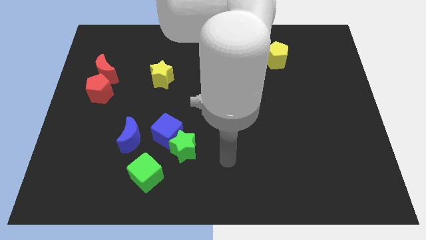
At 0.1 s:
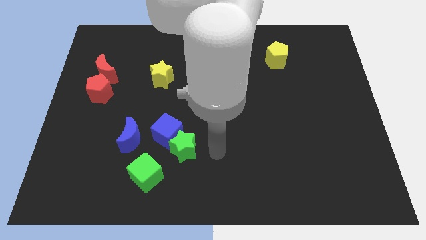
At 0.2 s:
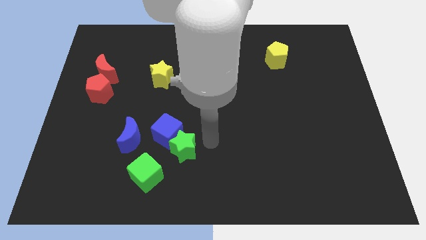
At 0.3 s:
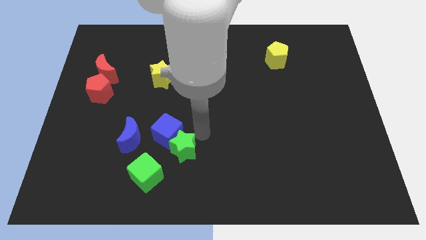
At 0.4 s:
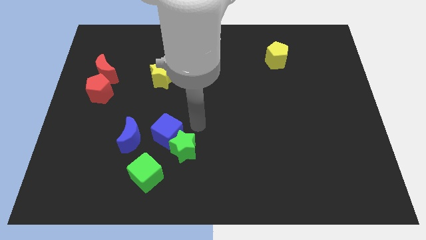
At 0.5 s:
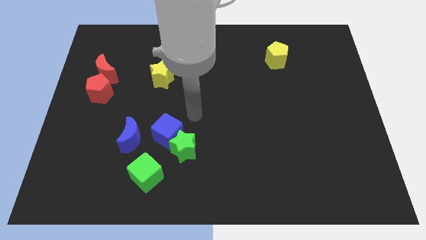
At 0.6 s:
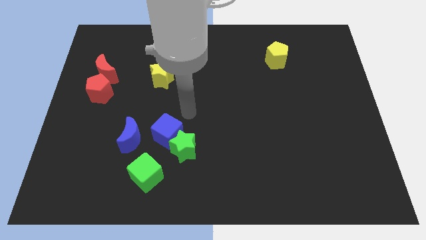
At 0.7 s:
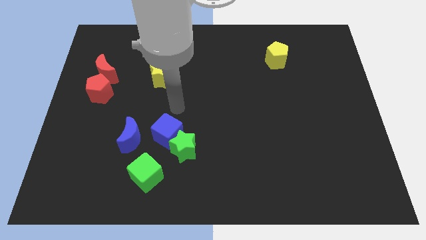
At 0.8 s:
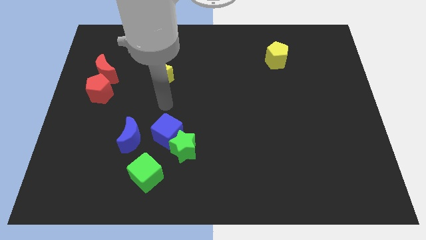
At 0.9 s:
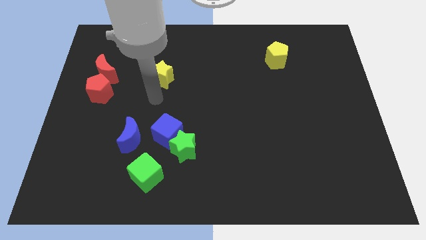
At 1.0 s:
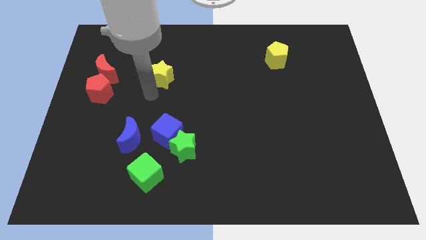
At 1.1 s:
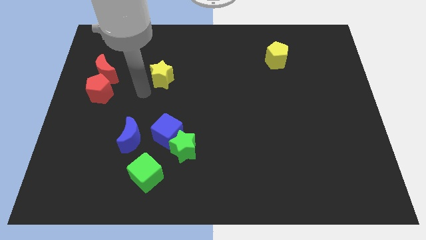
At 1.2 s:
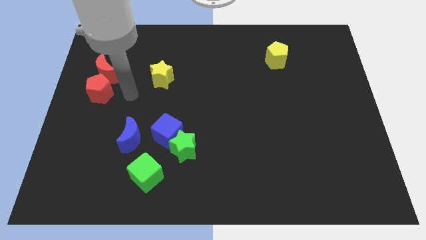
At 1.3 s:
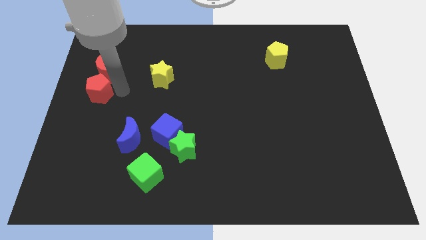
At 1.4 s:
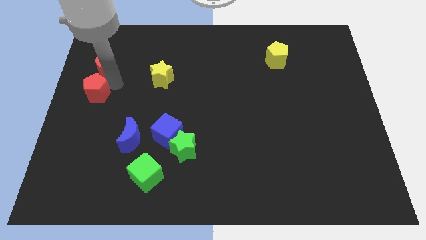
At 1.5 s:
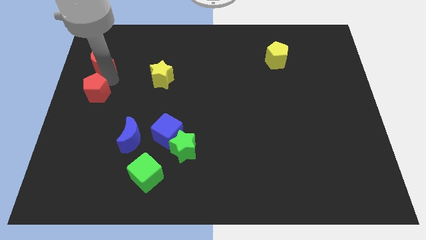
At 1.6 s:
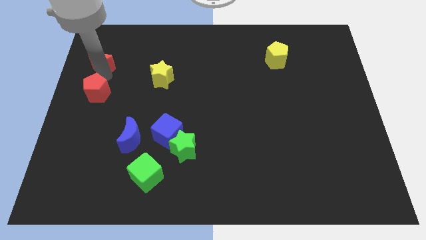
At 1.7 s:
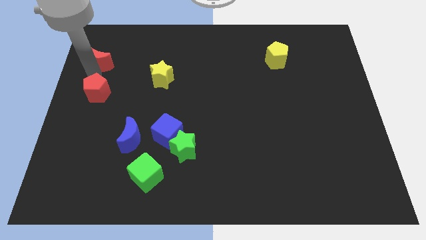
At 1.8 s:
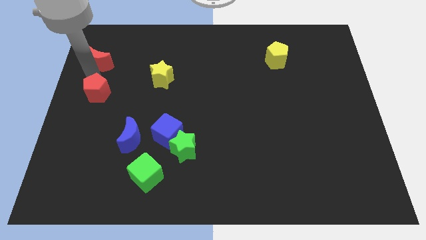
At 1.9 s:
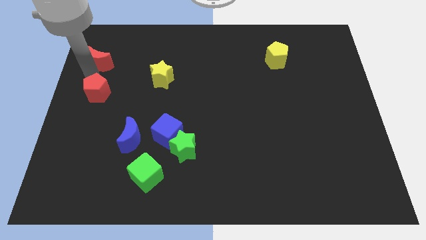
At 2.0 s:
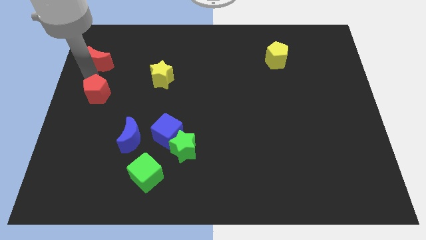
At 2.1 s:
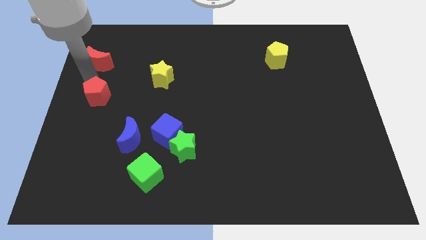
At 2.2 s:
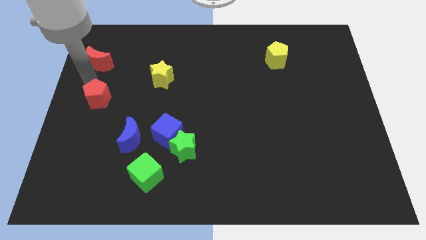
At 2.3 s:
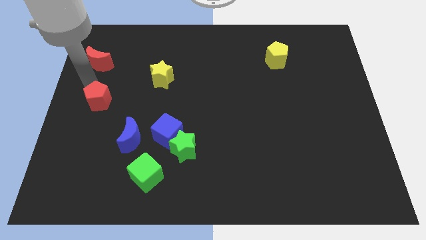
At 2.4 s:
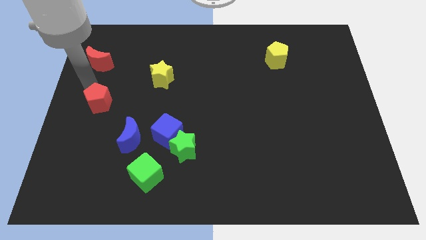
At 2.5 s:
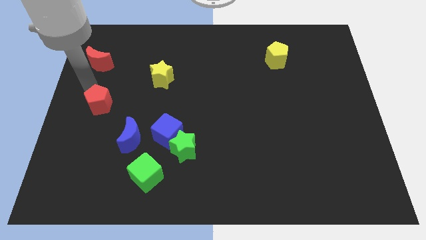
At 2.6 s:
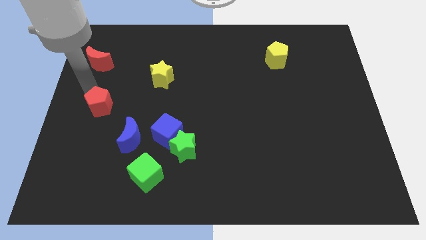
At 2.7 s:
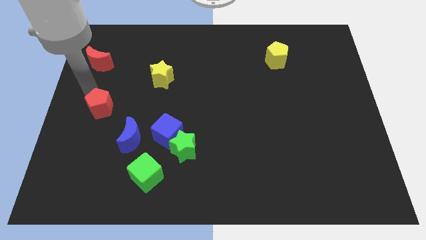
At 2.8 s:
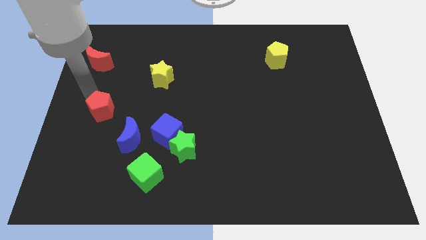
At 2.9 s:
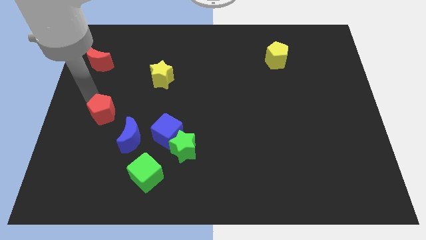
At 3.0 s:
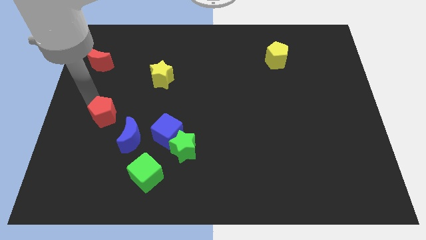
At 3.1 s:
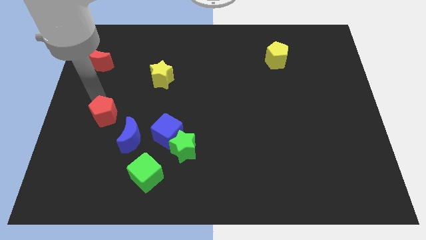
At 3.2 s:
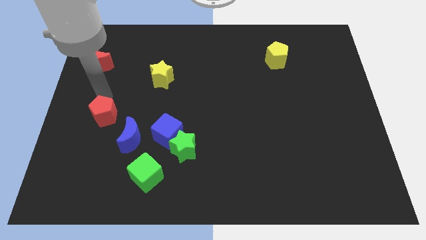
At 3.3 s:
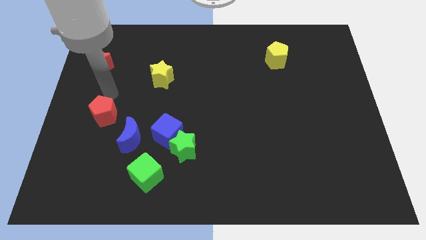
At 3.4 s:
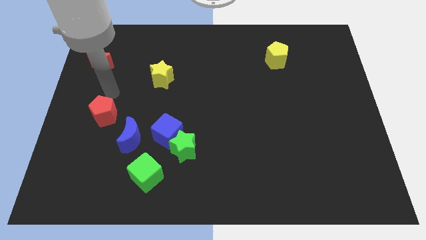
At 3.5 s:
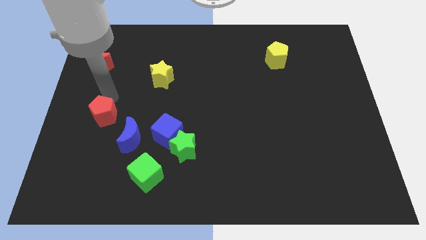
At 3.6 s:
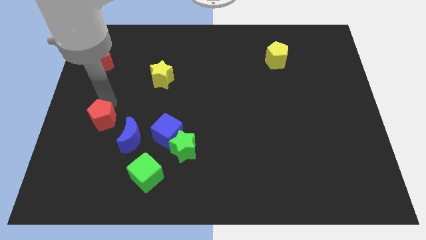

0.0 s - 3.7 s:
slightly slide the red pentagon down

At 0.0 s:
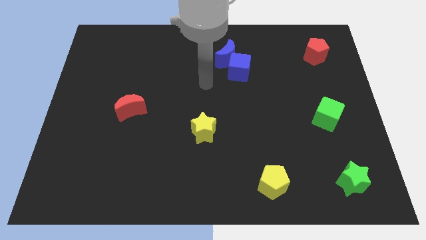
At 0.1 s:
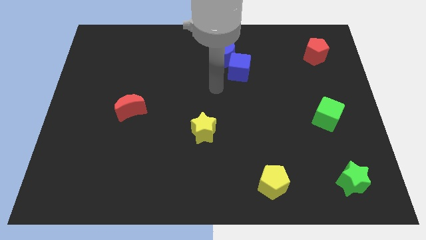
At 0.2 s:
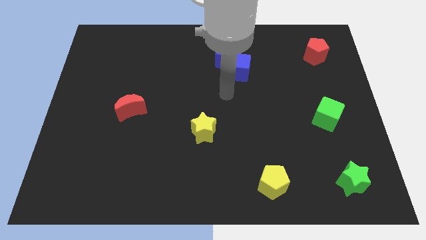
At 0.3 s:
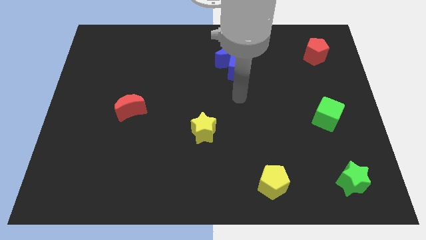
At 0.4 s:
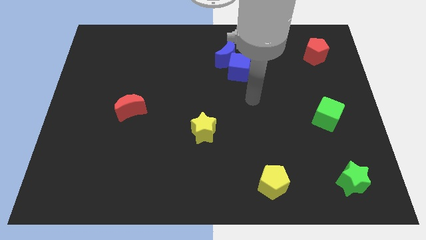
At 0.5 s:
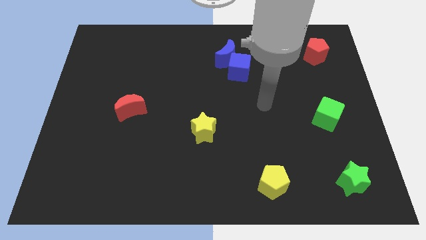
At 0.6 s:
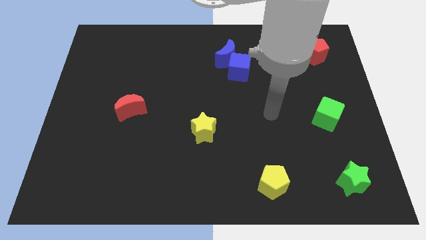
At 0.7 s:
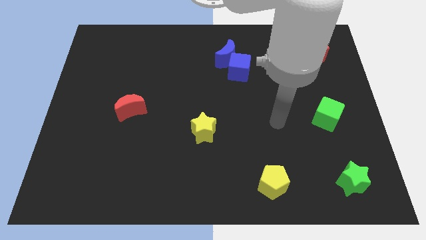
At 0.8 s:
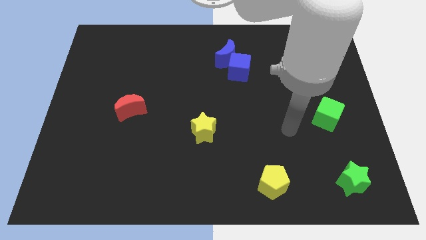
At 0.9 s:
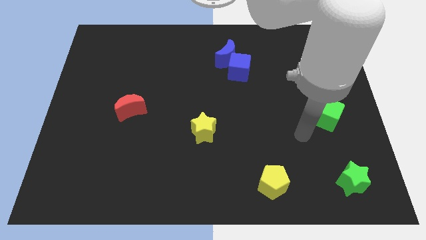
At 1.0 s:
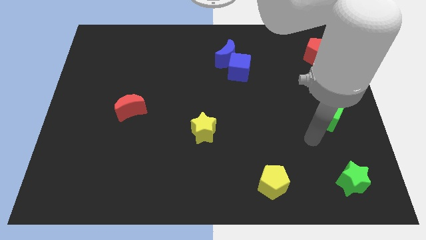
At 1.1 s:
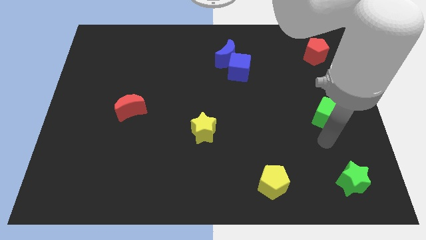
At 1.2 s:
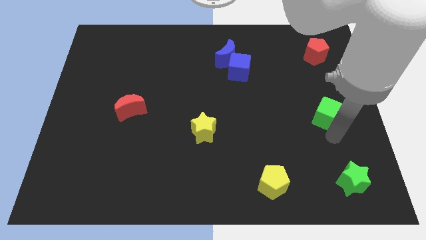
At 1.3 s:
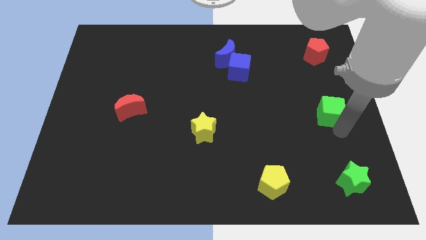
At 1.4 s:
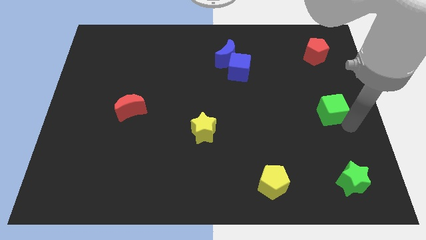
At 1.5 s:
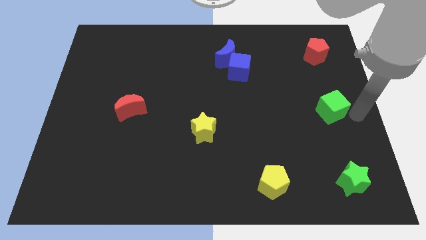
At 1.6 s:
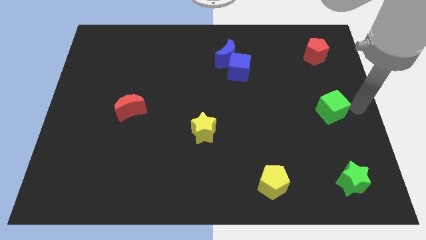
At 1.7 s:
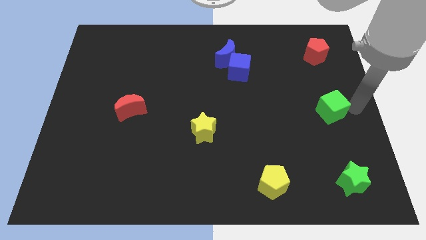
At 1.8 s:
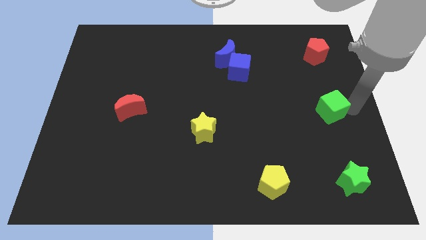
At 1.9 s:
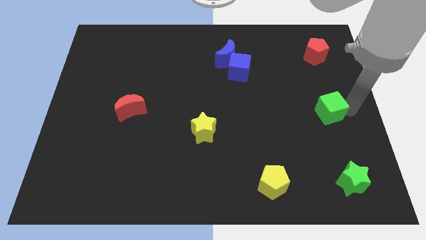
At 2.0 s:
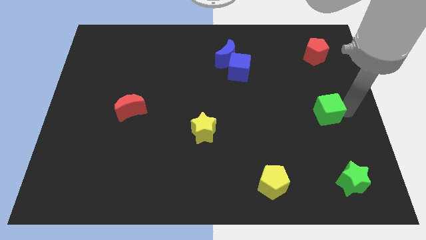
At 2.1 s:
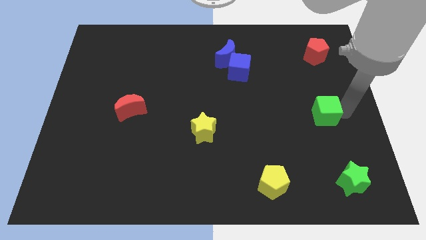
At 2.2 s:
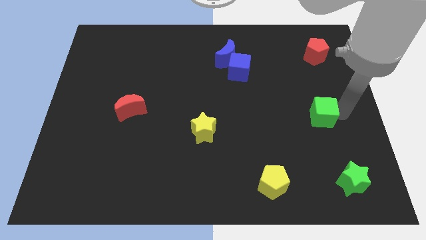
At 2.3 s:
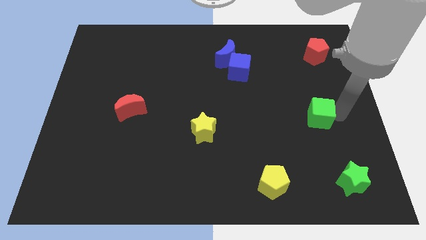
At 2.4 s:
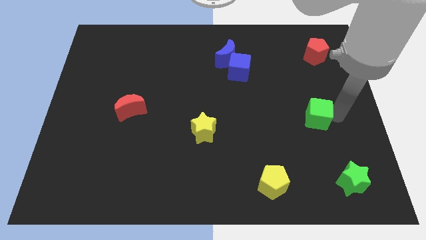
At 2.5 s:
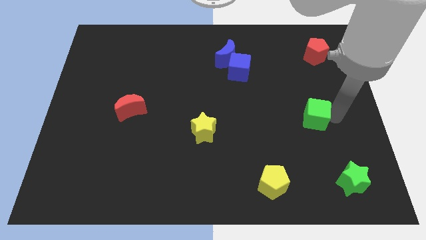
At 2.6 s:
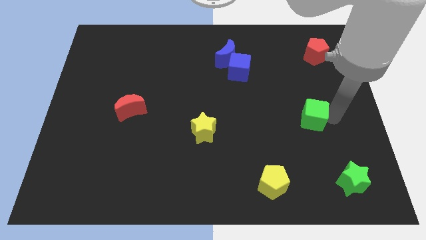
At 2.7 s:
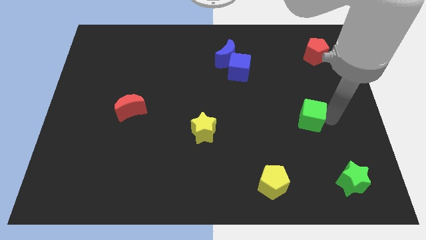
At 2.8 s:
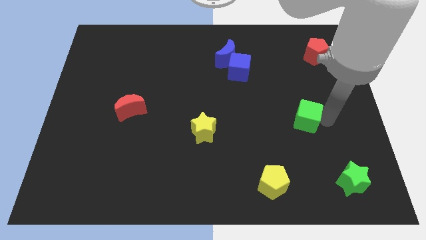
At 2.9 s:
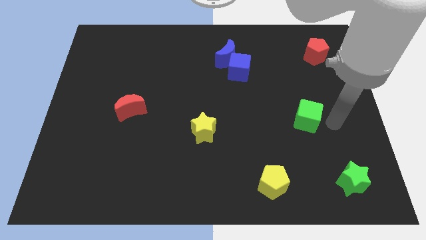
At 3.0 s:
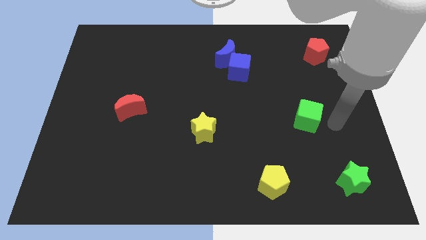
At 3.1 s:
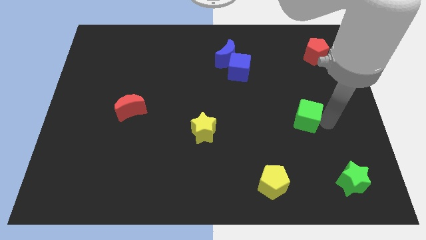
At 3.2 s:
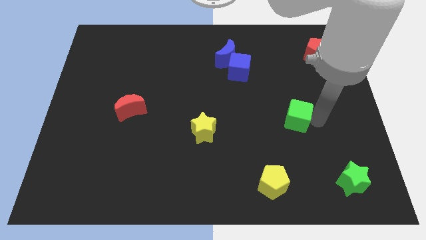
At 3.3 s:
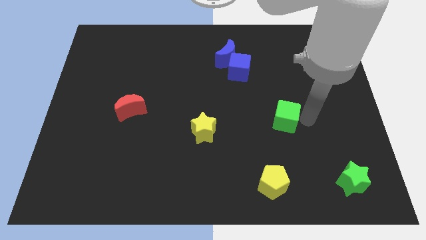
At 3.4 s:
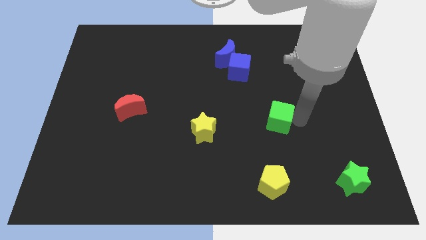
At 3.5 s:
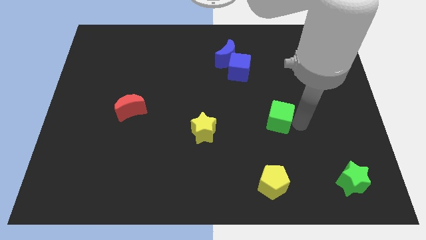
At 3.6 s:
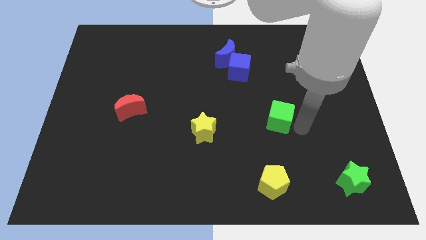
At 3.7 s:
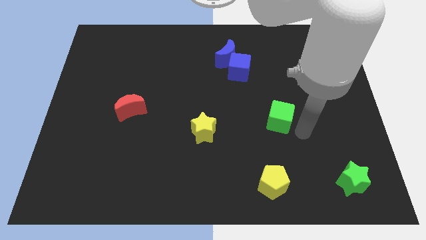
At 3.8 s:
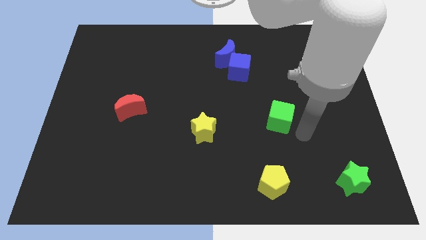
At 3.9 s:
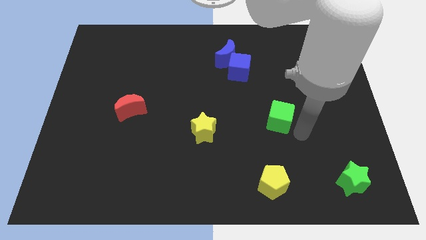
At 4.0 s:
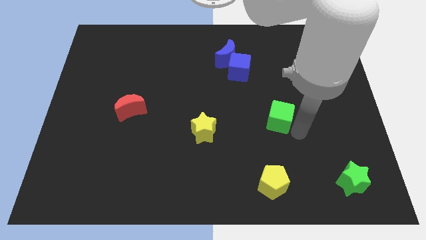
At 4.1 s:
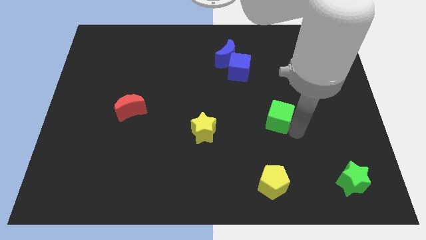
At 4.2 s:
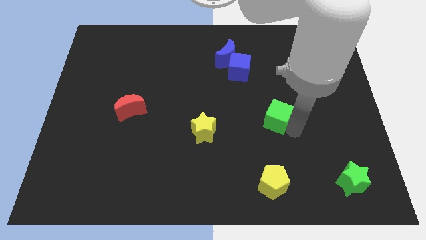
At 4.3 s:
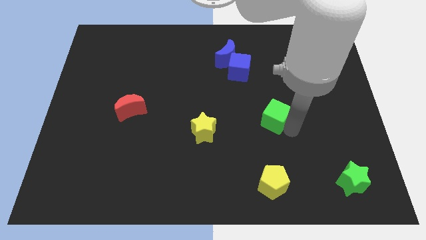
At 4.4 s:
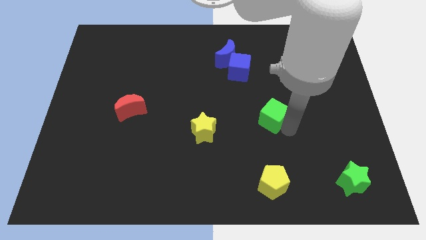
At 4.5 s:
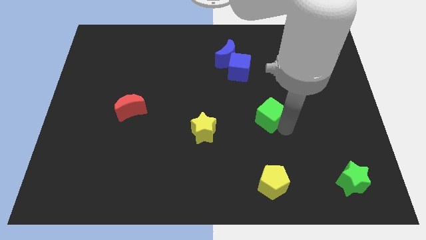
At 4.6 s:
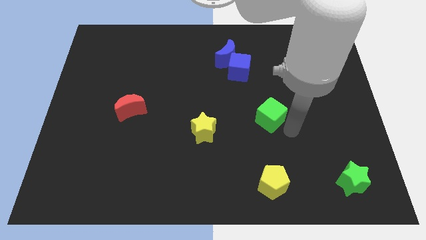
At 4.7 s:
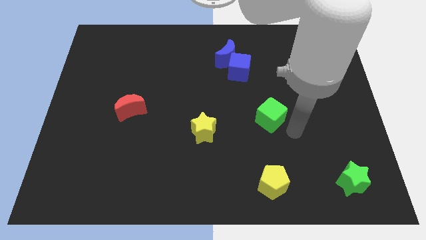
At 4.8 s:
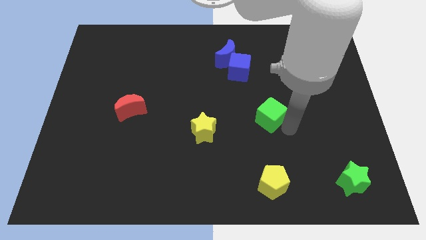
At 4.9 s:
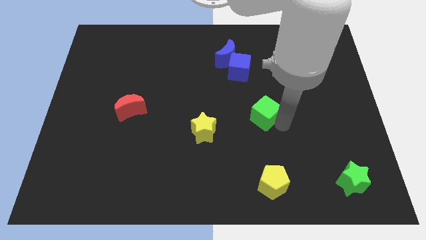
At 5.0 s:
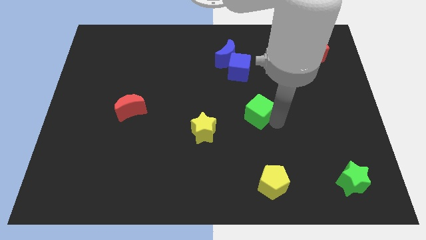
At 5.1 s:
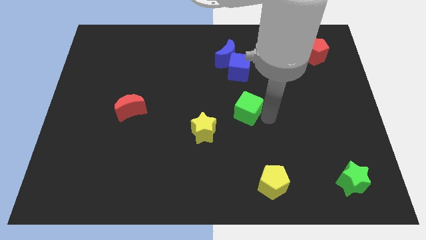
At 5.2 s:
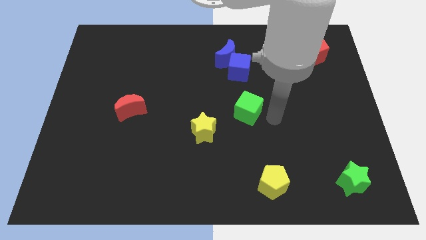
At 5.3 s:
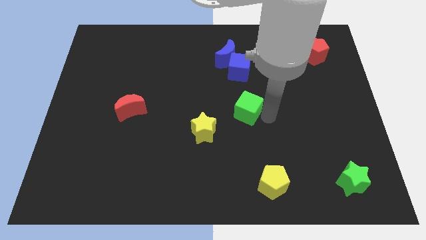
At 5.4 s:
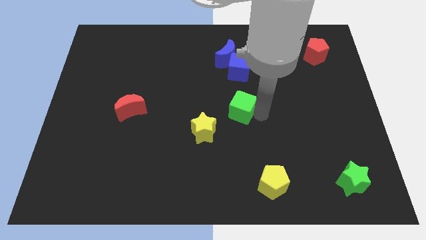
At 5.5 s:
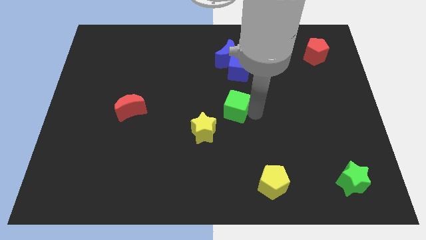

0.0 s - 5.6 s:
move the green cube left
